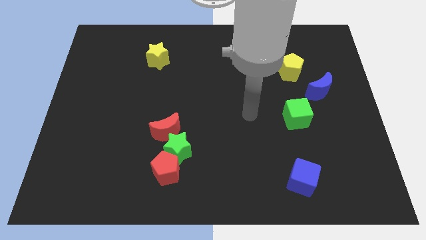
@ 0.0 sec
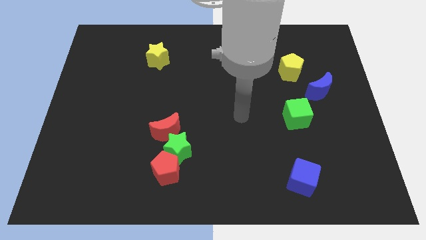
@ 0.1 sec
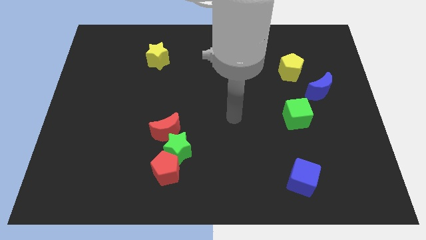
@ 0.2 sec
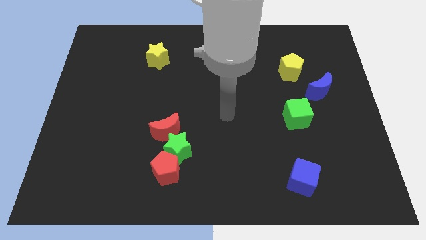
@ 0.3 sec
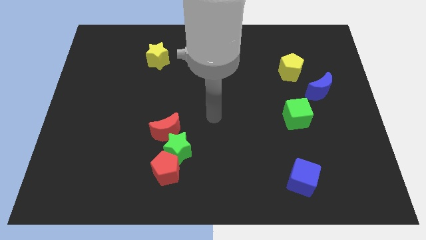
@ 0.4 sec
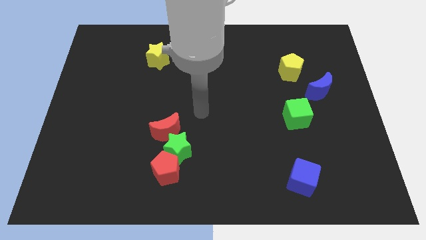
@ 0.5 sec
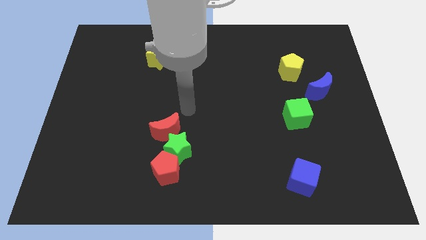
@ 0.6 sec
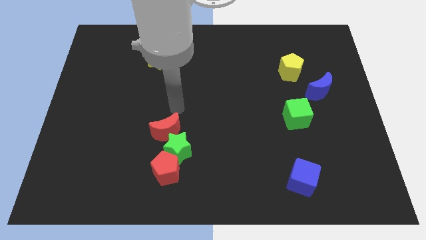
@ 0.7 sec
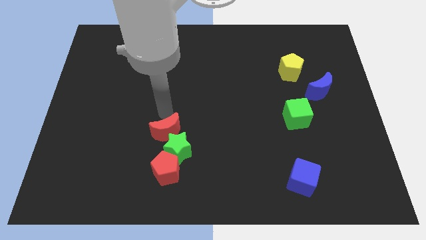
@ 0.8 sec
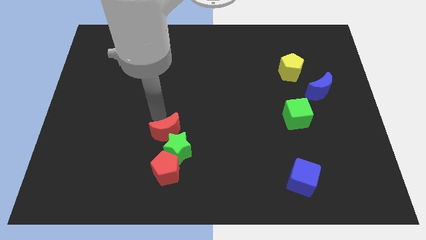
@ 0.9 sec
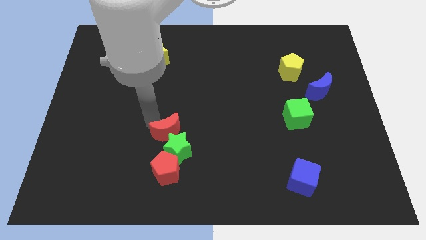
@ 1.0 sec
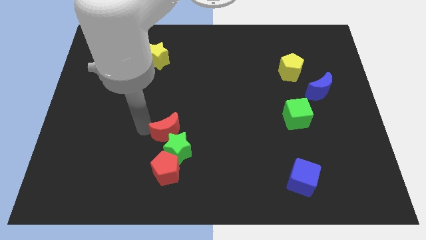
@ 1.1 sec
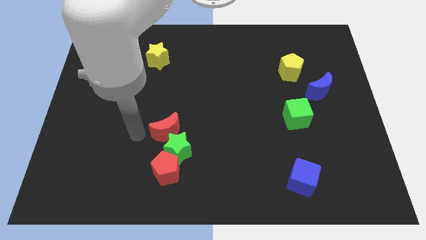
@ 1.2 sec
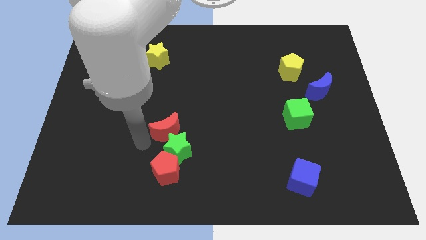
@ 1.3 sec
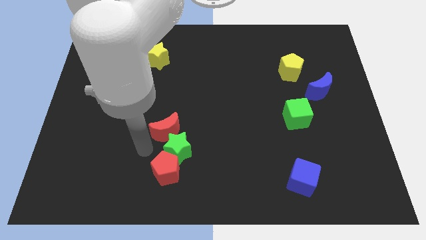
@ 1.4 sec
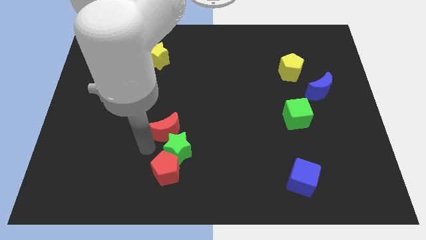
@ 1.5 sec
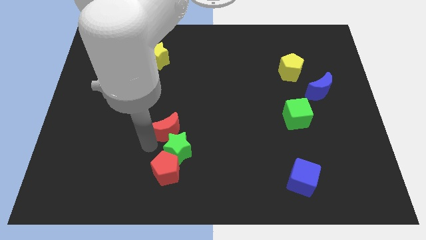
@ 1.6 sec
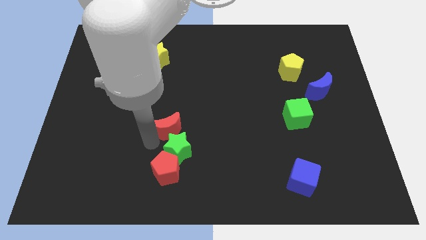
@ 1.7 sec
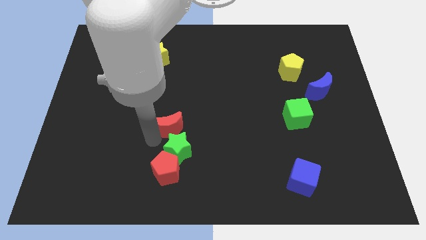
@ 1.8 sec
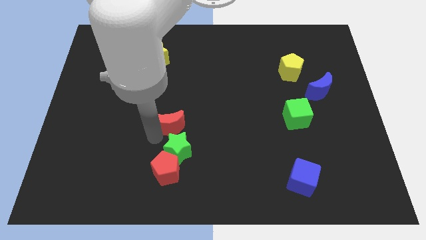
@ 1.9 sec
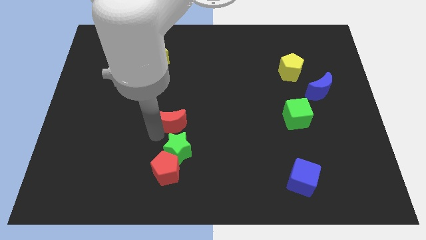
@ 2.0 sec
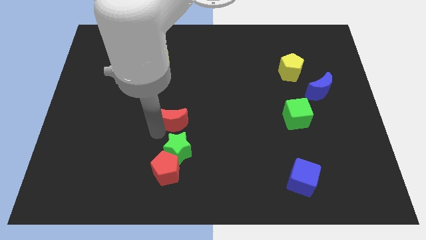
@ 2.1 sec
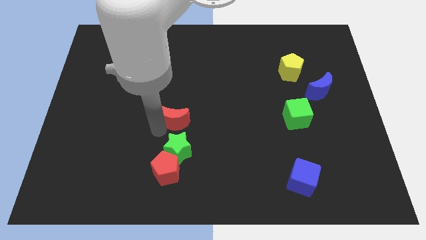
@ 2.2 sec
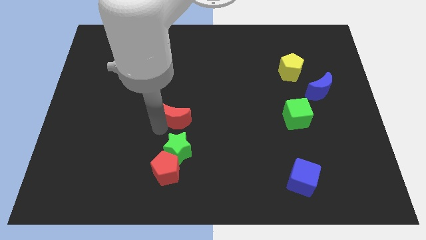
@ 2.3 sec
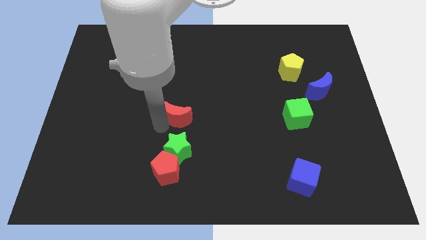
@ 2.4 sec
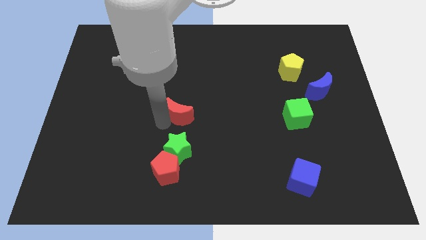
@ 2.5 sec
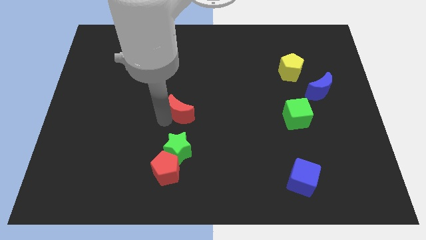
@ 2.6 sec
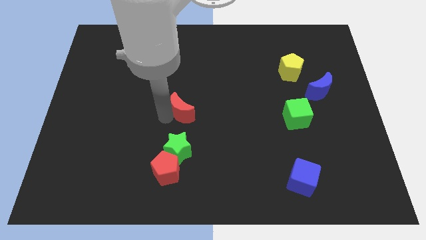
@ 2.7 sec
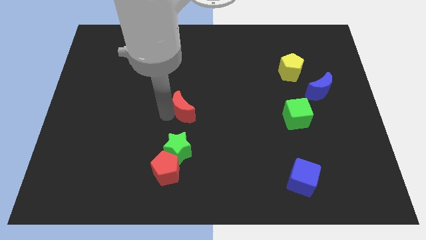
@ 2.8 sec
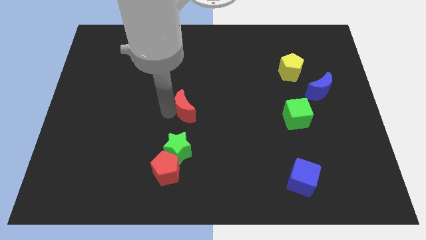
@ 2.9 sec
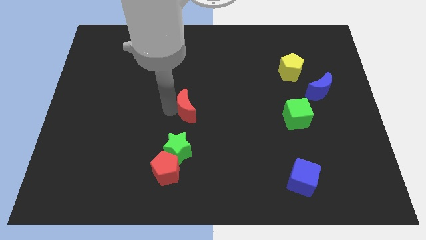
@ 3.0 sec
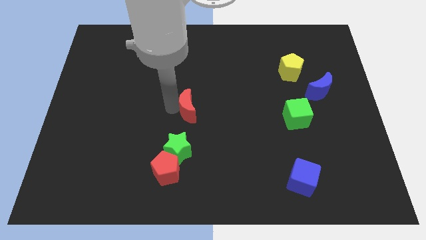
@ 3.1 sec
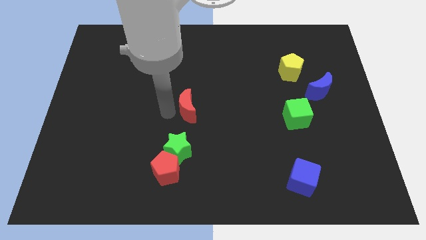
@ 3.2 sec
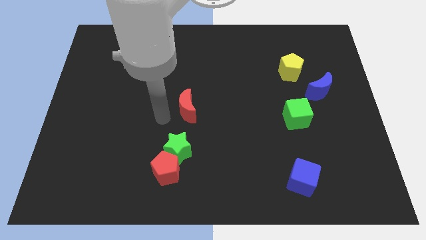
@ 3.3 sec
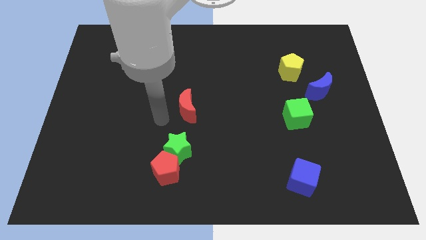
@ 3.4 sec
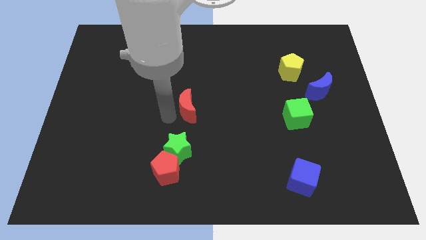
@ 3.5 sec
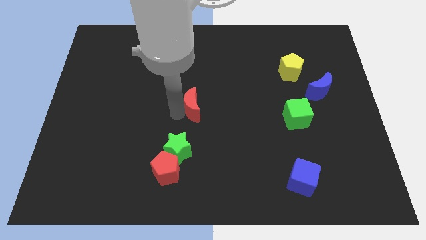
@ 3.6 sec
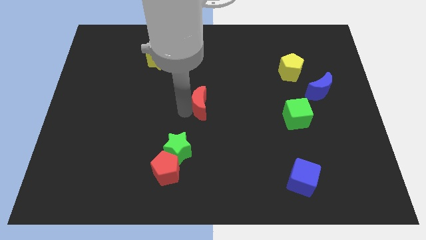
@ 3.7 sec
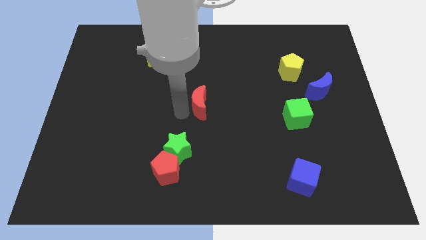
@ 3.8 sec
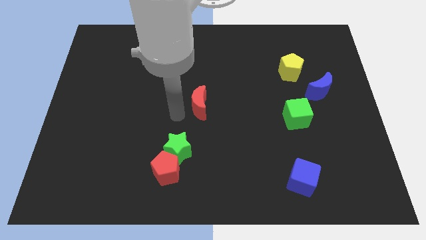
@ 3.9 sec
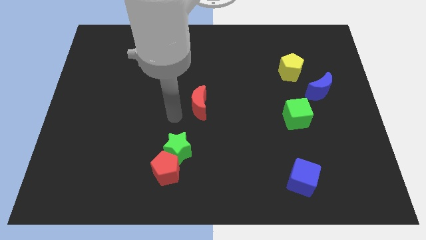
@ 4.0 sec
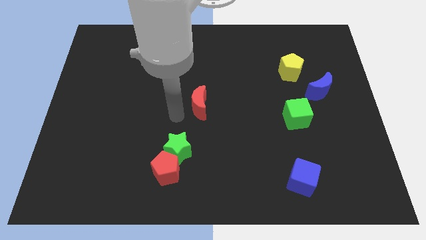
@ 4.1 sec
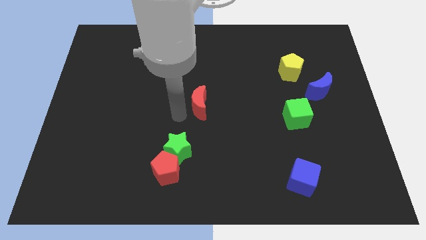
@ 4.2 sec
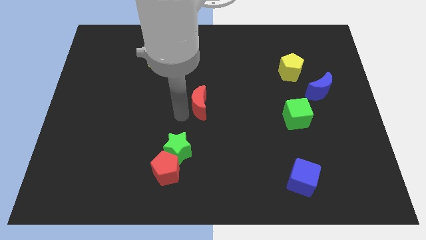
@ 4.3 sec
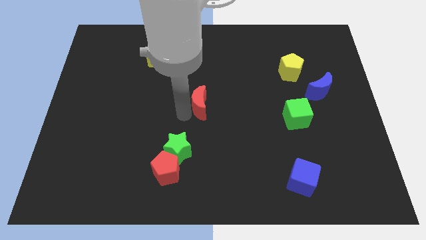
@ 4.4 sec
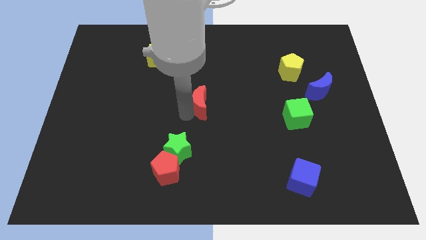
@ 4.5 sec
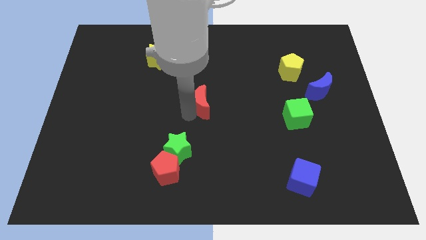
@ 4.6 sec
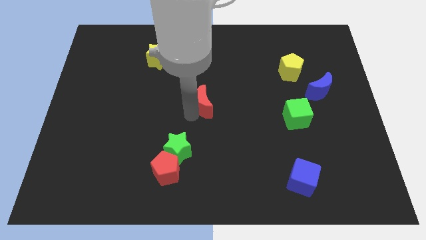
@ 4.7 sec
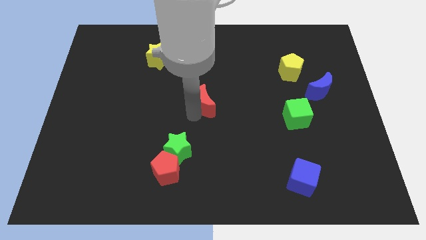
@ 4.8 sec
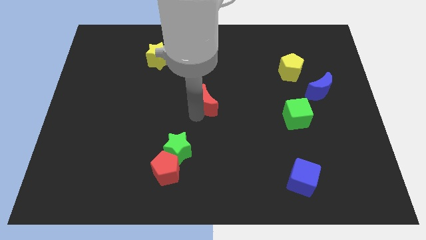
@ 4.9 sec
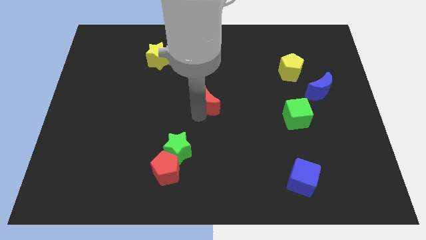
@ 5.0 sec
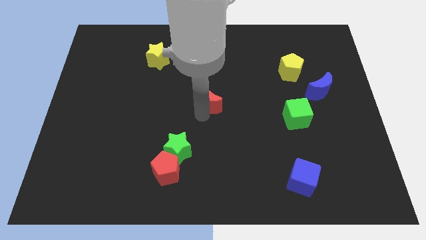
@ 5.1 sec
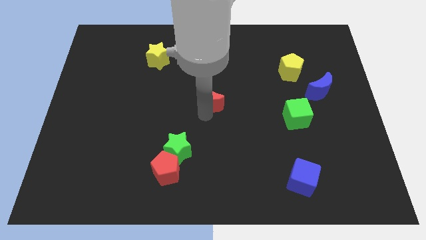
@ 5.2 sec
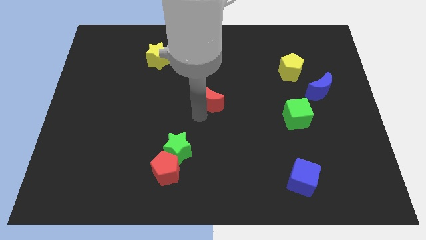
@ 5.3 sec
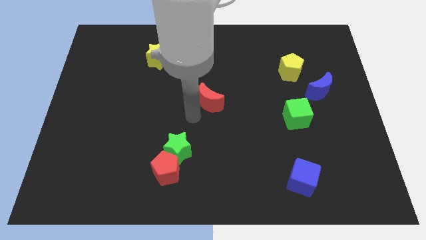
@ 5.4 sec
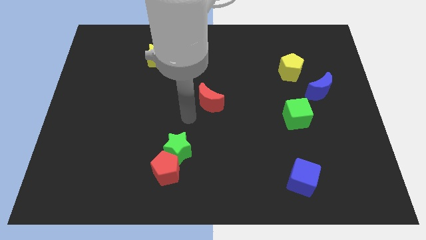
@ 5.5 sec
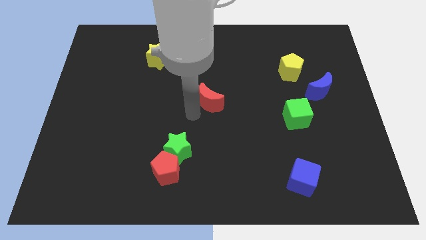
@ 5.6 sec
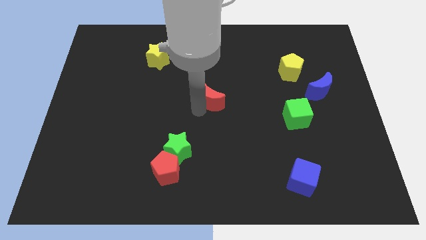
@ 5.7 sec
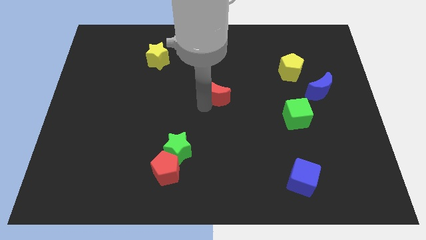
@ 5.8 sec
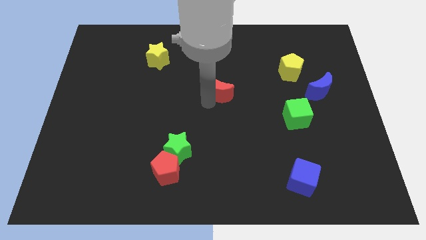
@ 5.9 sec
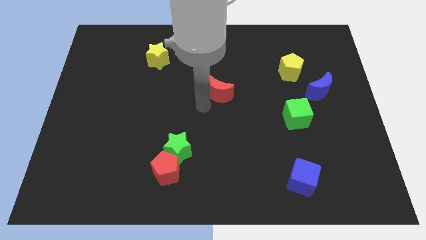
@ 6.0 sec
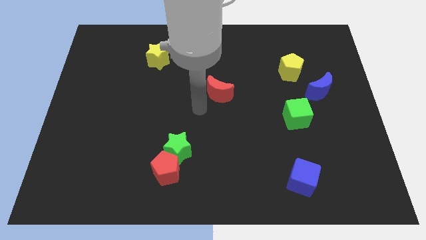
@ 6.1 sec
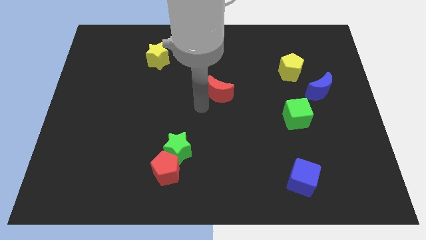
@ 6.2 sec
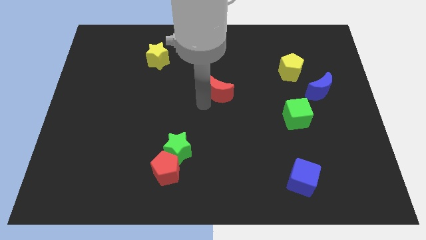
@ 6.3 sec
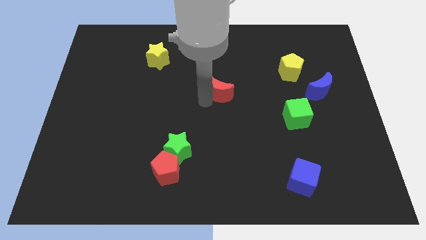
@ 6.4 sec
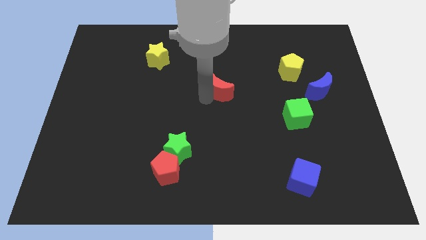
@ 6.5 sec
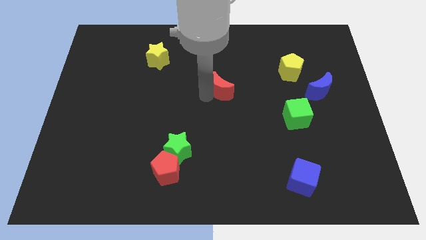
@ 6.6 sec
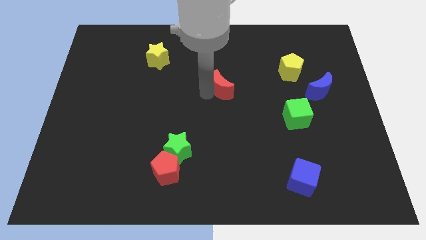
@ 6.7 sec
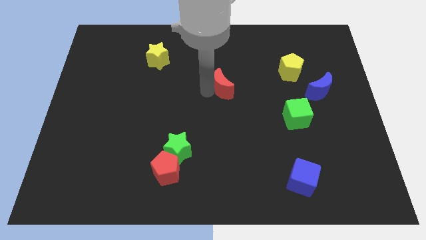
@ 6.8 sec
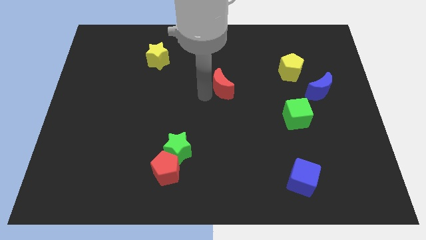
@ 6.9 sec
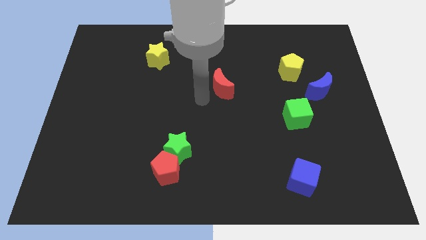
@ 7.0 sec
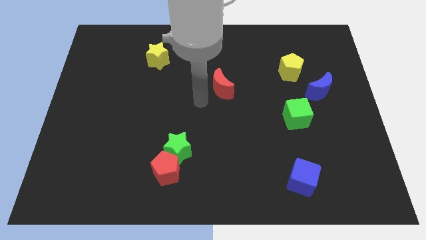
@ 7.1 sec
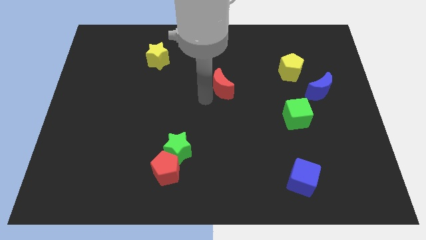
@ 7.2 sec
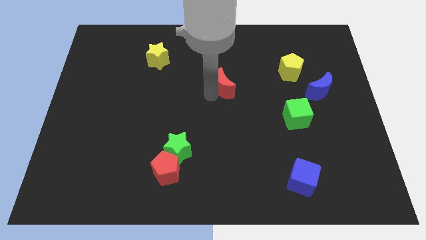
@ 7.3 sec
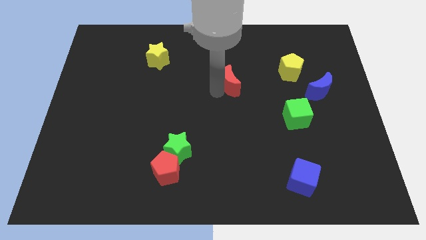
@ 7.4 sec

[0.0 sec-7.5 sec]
push the red moon diagonally upwards and right
